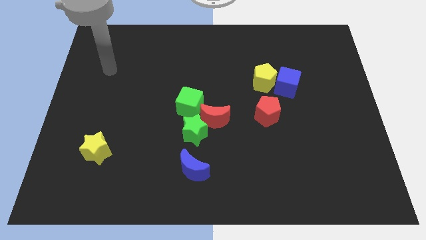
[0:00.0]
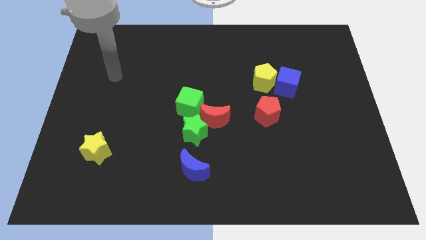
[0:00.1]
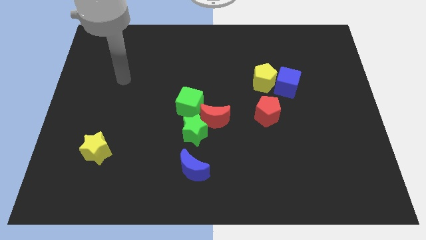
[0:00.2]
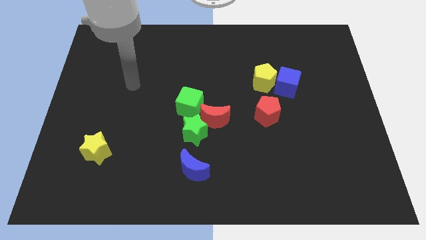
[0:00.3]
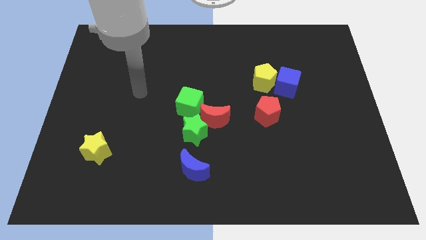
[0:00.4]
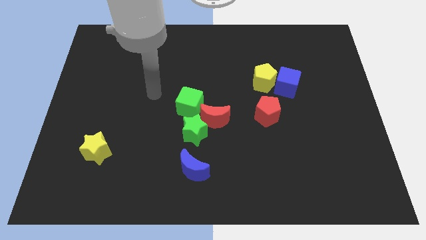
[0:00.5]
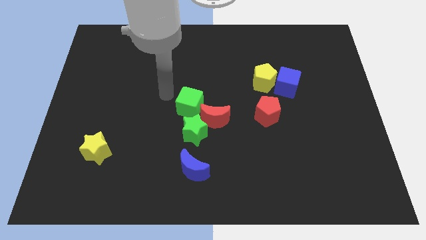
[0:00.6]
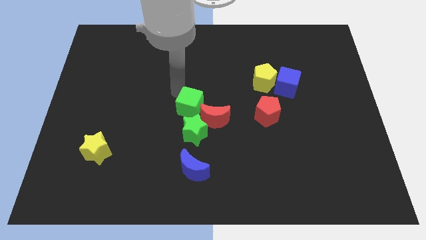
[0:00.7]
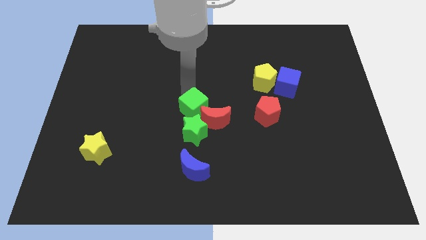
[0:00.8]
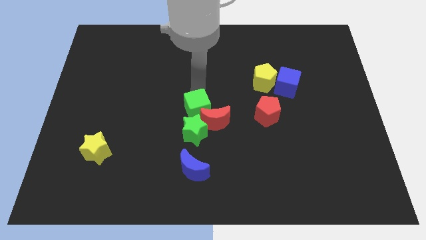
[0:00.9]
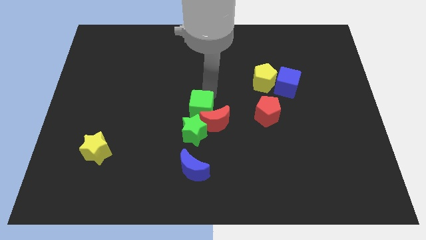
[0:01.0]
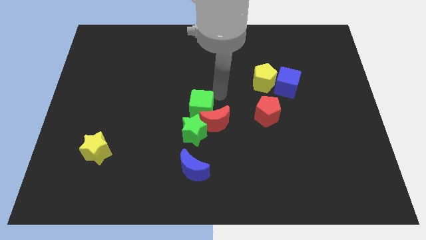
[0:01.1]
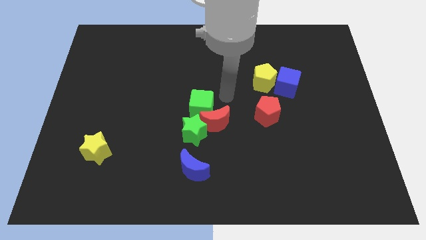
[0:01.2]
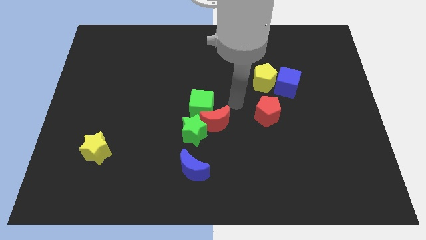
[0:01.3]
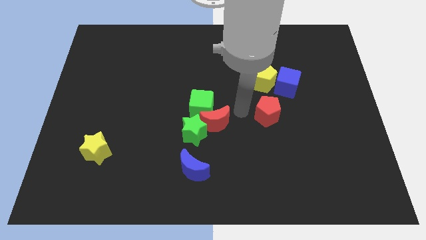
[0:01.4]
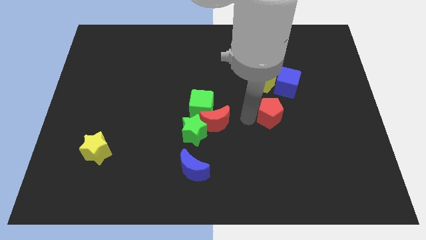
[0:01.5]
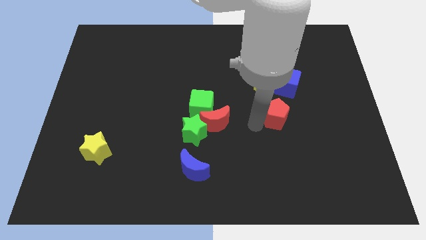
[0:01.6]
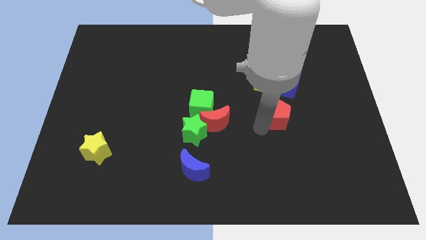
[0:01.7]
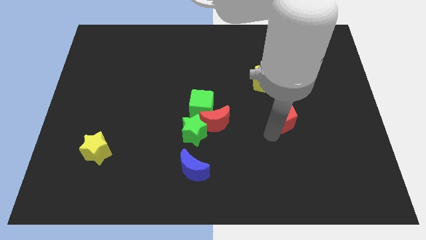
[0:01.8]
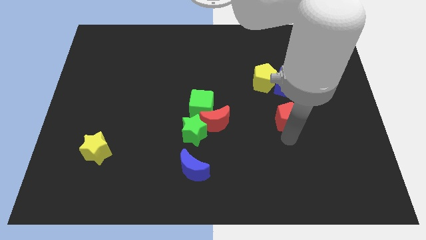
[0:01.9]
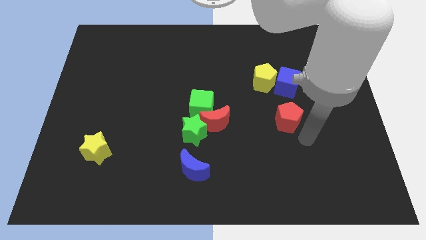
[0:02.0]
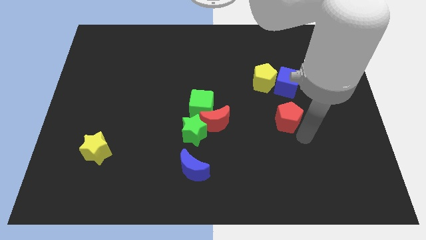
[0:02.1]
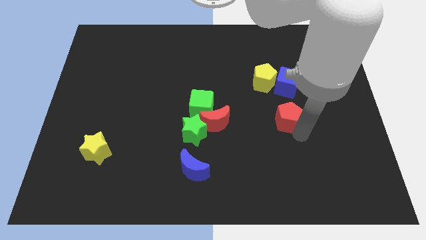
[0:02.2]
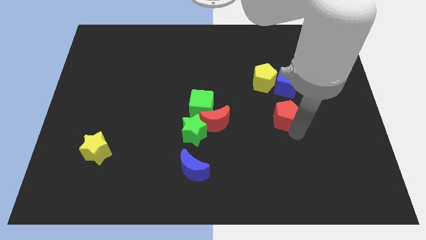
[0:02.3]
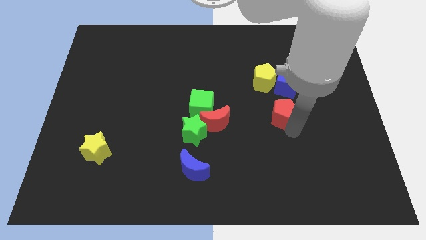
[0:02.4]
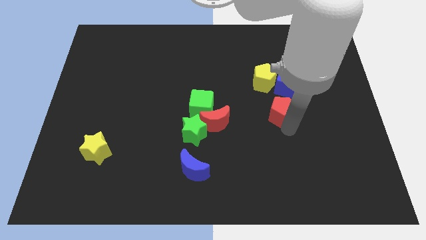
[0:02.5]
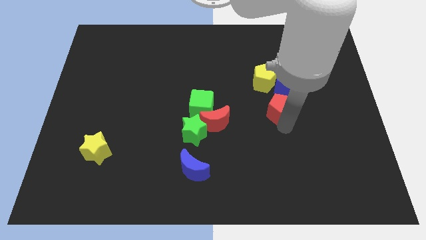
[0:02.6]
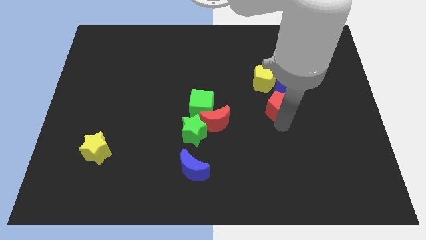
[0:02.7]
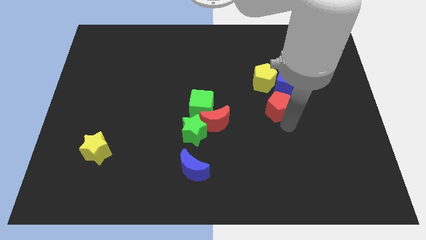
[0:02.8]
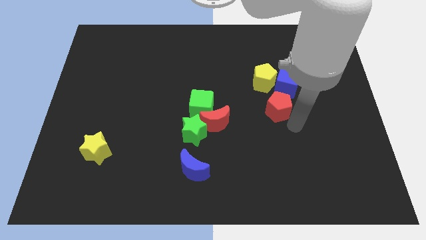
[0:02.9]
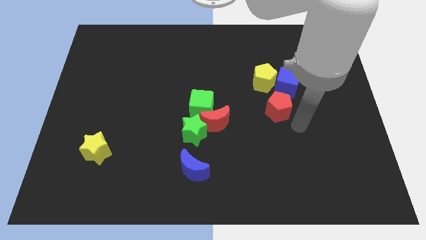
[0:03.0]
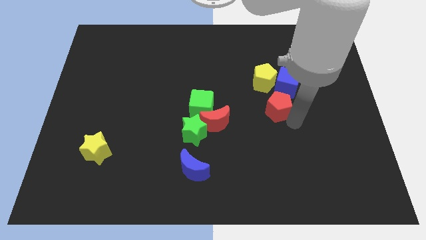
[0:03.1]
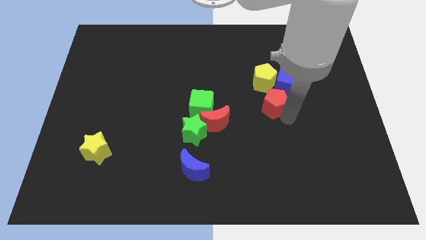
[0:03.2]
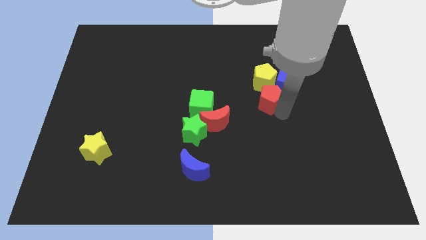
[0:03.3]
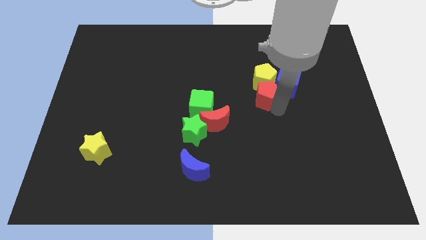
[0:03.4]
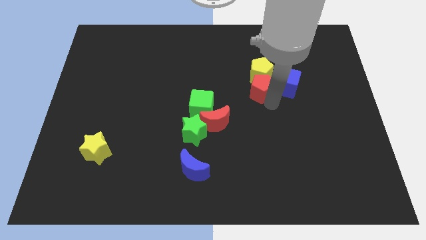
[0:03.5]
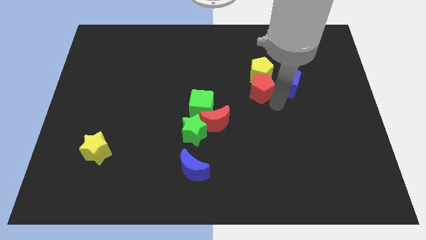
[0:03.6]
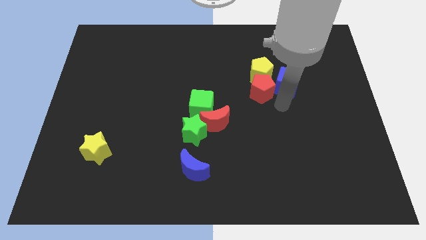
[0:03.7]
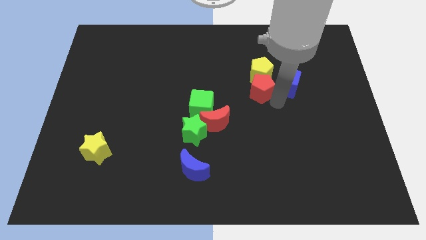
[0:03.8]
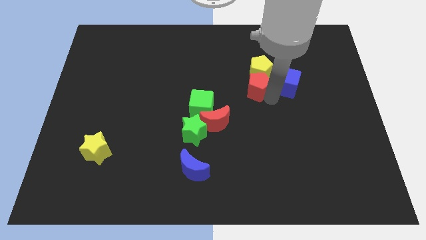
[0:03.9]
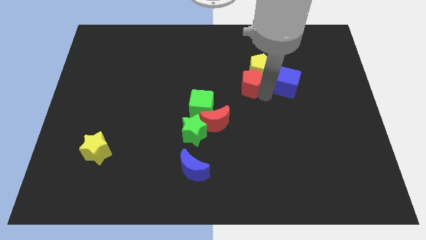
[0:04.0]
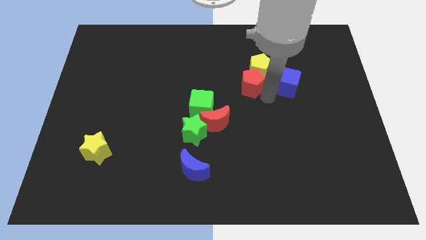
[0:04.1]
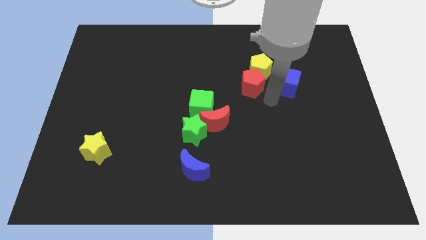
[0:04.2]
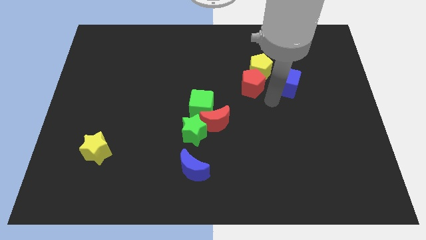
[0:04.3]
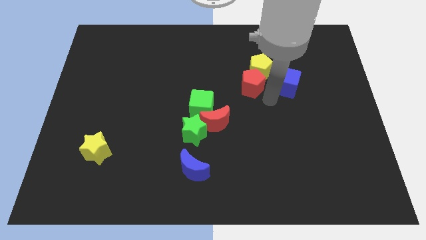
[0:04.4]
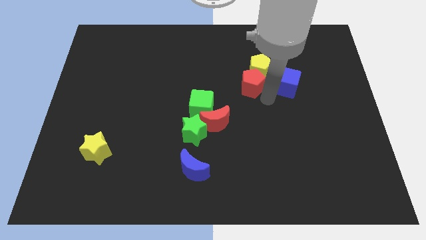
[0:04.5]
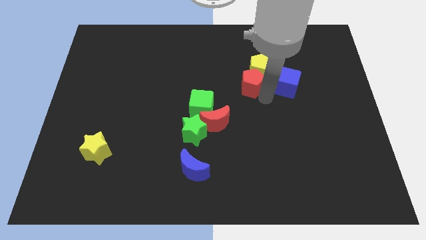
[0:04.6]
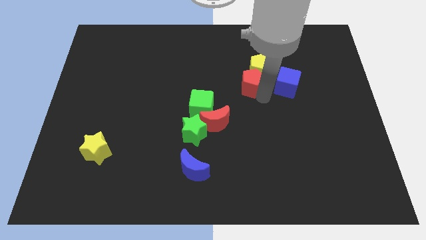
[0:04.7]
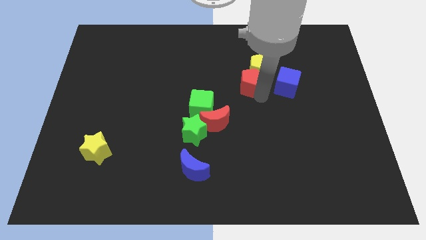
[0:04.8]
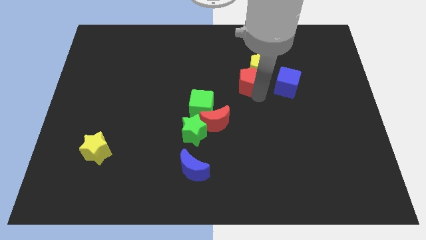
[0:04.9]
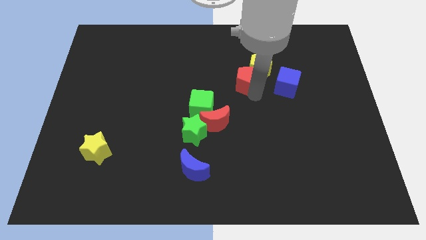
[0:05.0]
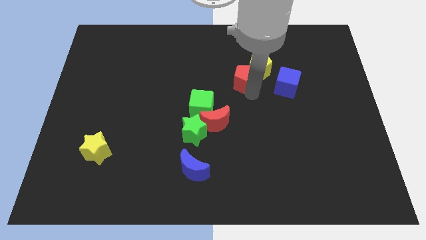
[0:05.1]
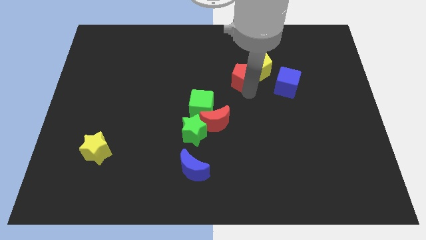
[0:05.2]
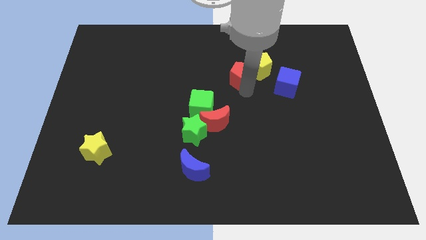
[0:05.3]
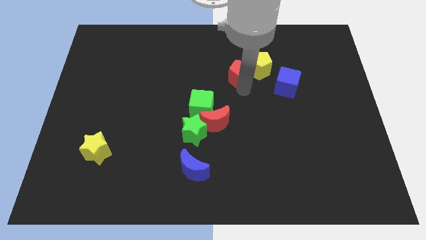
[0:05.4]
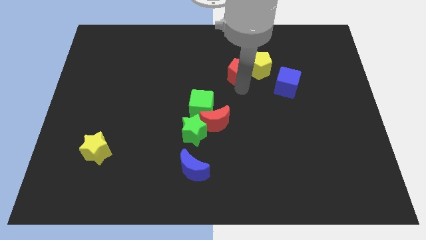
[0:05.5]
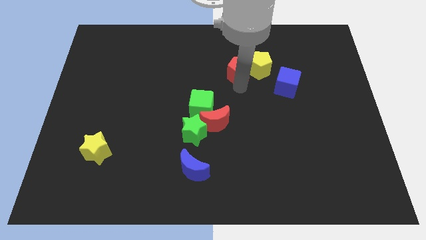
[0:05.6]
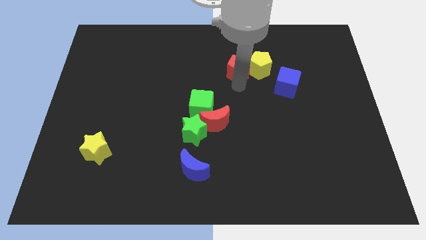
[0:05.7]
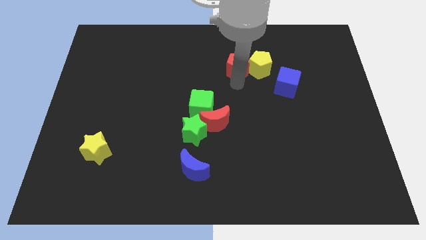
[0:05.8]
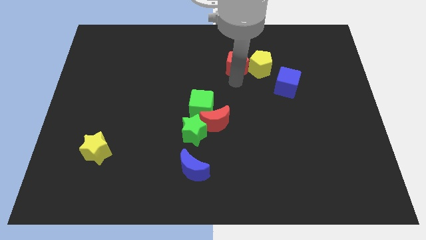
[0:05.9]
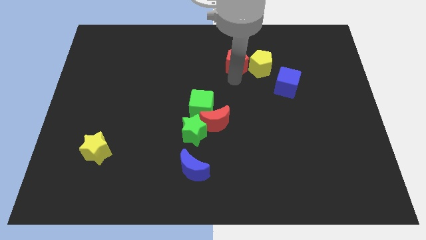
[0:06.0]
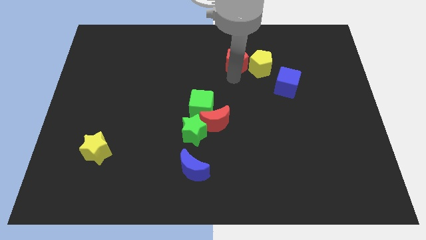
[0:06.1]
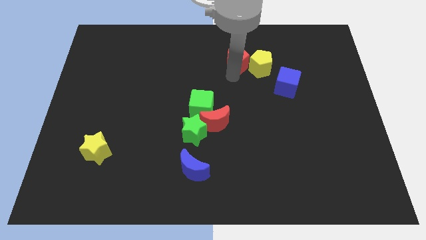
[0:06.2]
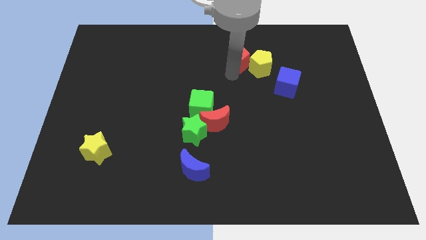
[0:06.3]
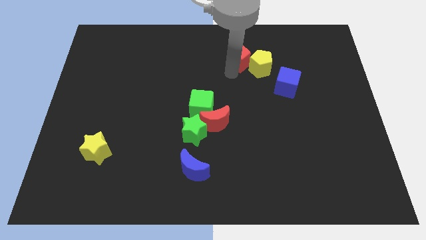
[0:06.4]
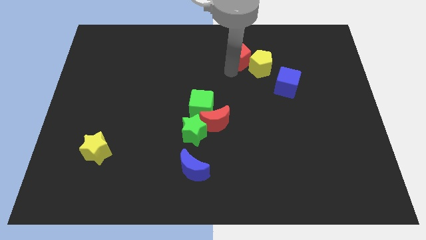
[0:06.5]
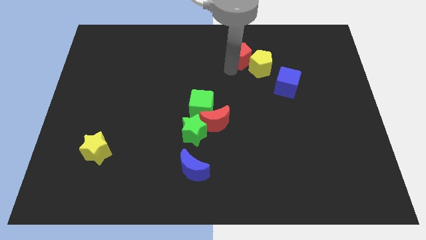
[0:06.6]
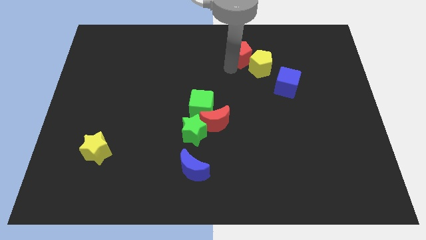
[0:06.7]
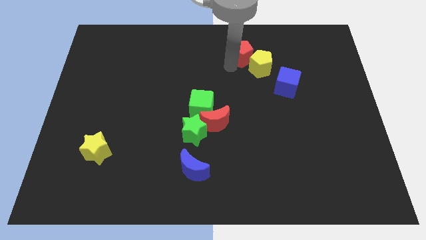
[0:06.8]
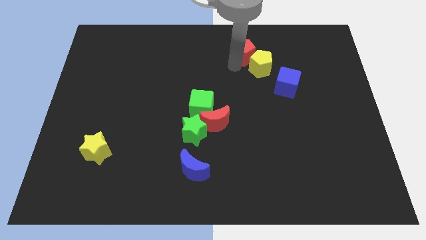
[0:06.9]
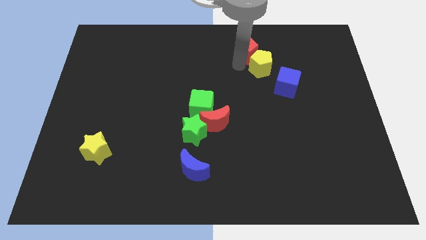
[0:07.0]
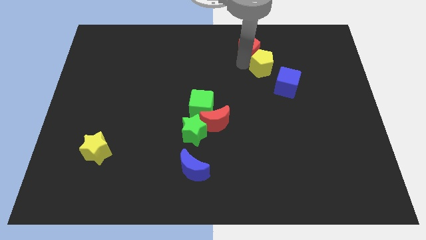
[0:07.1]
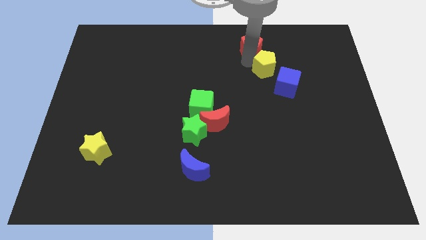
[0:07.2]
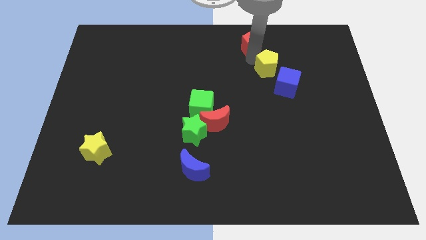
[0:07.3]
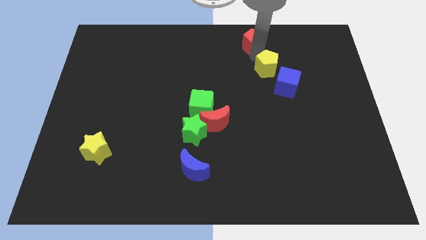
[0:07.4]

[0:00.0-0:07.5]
put the red pentagon to the towards your base
